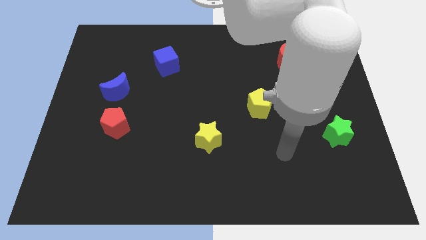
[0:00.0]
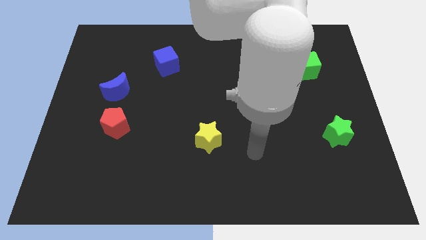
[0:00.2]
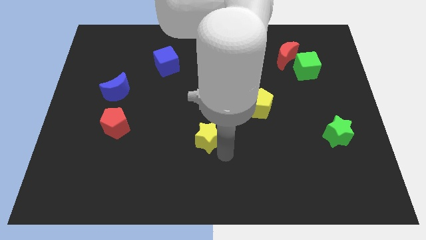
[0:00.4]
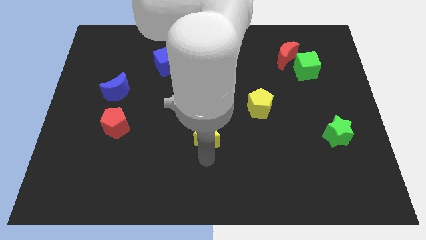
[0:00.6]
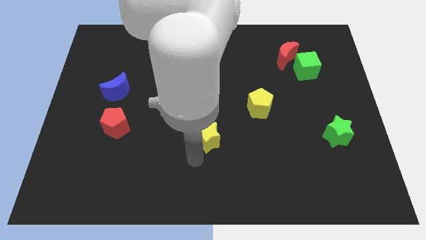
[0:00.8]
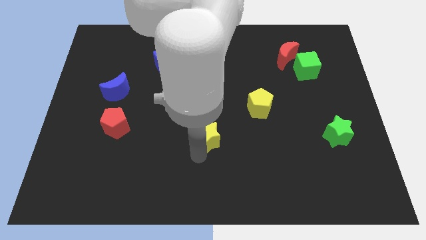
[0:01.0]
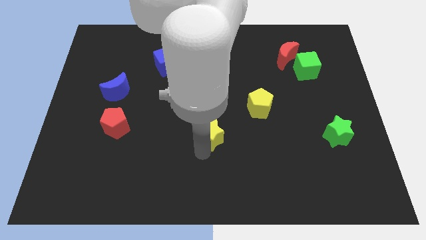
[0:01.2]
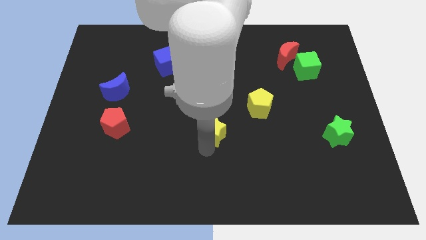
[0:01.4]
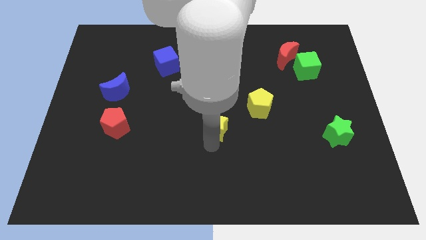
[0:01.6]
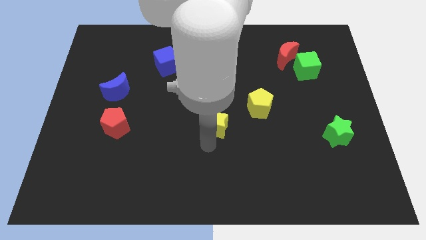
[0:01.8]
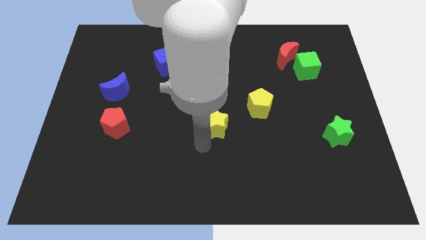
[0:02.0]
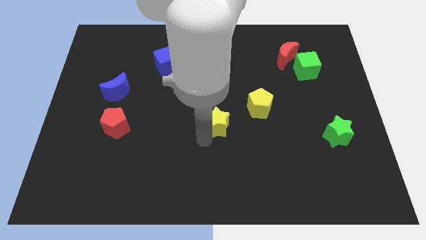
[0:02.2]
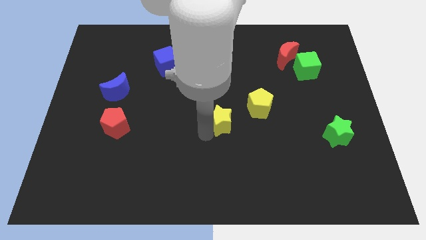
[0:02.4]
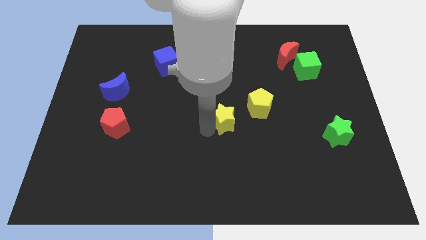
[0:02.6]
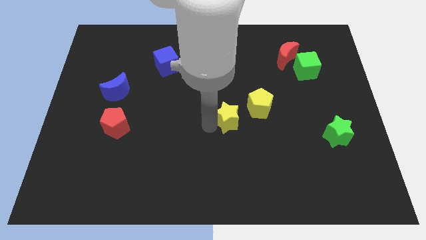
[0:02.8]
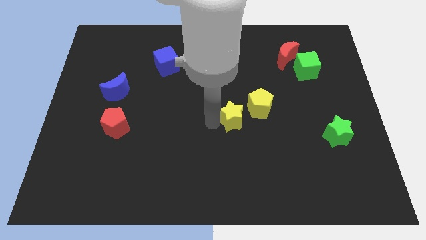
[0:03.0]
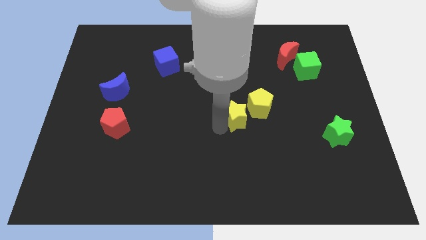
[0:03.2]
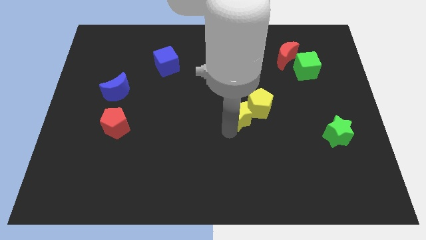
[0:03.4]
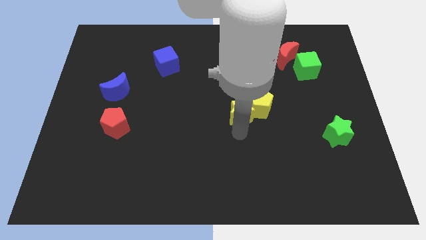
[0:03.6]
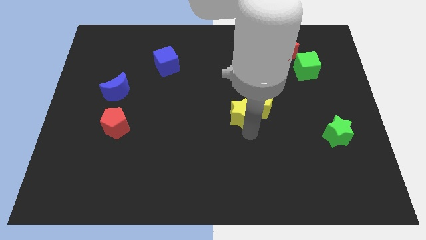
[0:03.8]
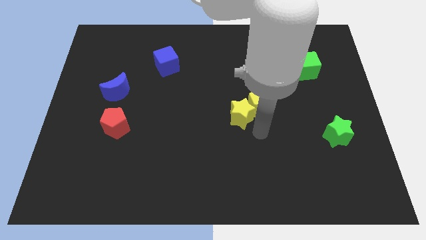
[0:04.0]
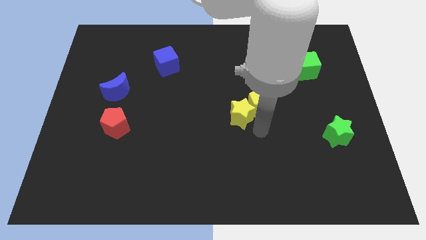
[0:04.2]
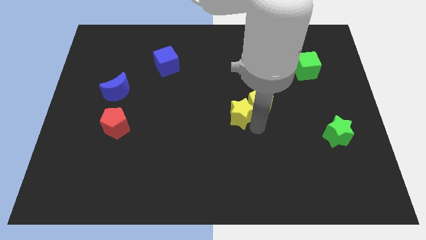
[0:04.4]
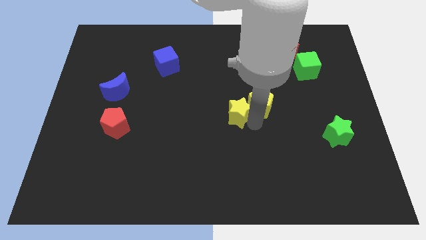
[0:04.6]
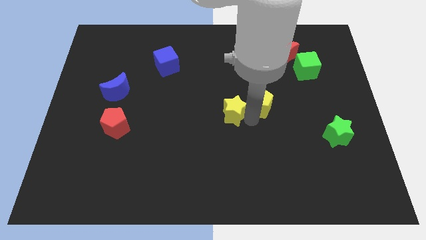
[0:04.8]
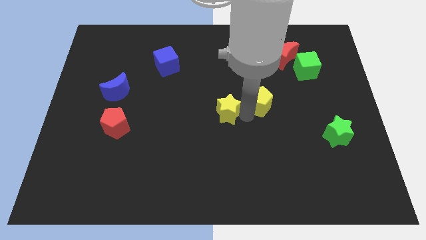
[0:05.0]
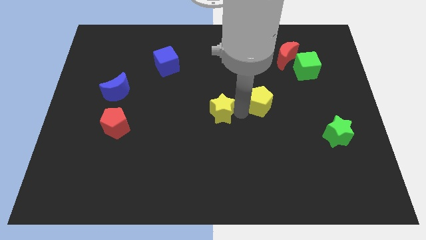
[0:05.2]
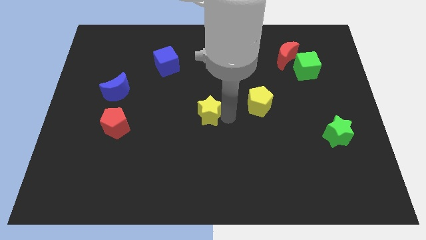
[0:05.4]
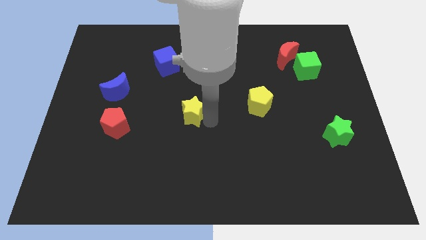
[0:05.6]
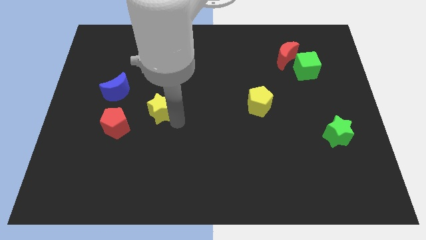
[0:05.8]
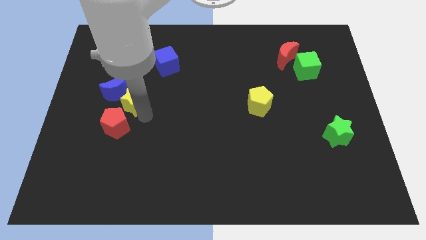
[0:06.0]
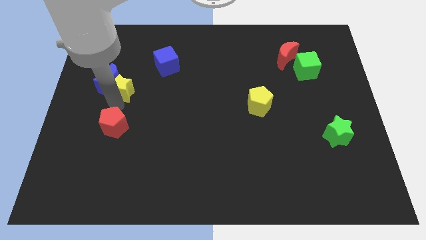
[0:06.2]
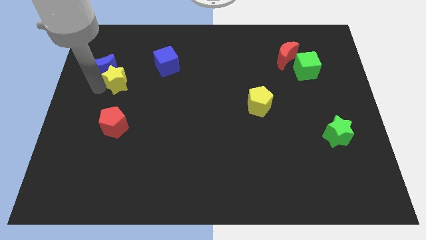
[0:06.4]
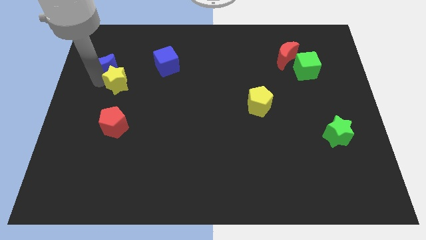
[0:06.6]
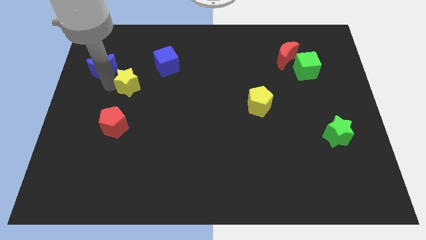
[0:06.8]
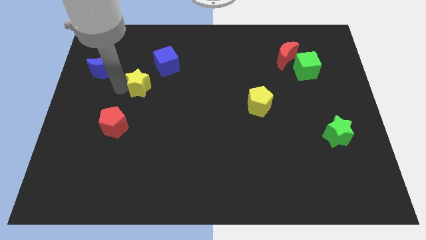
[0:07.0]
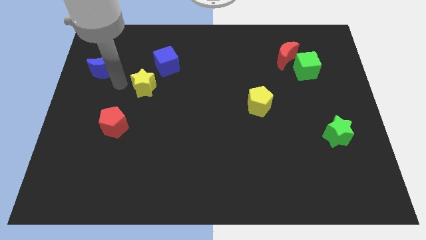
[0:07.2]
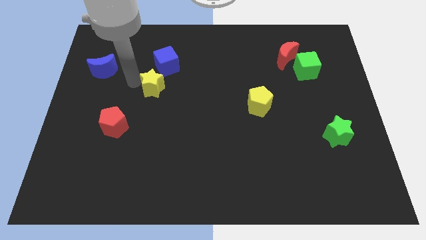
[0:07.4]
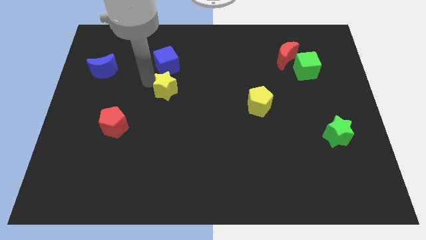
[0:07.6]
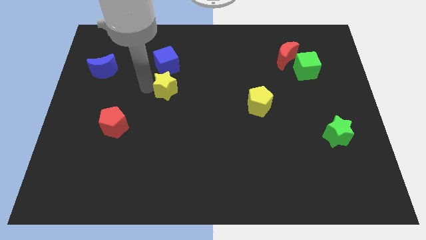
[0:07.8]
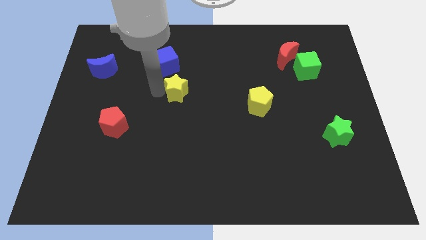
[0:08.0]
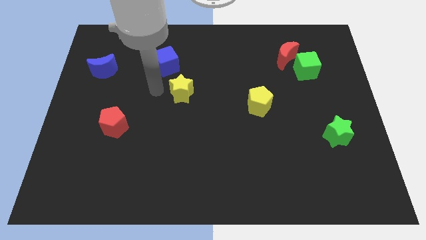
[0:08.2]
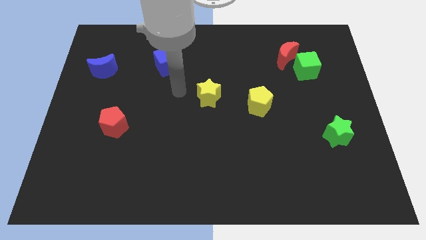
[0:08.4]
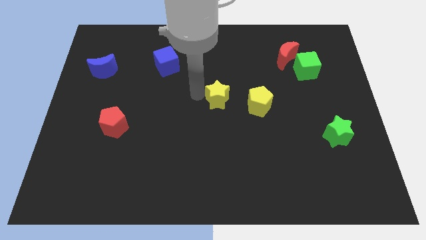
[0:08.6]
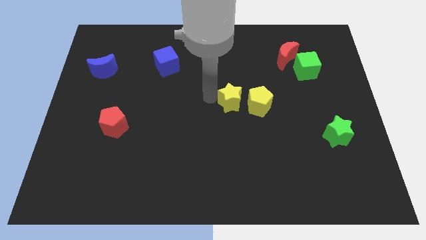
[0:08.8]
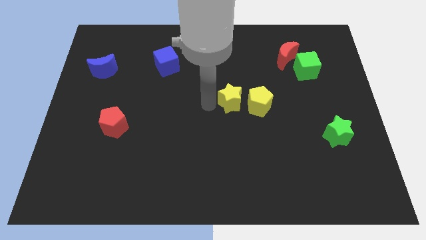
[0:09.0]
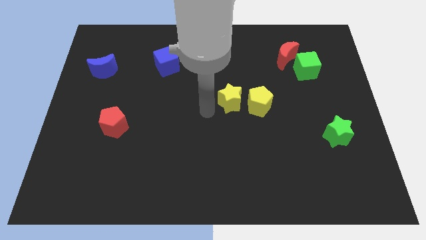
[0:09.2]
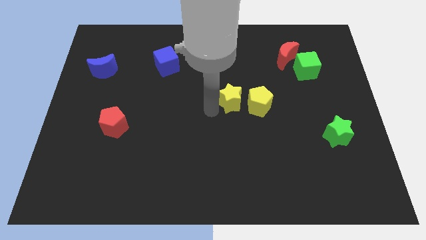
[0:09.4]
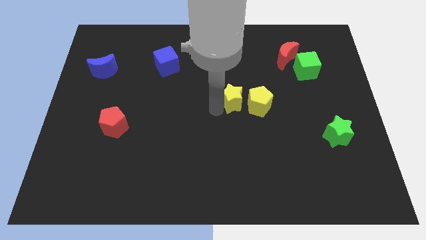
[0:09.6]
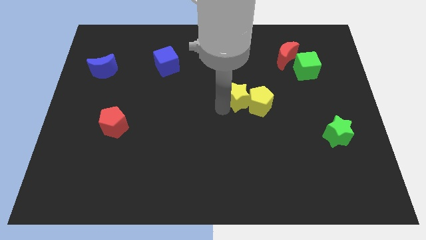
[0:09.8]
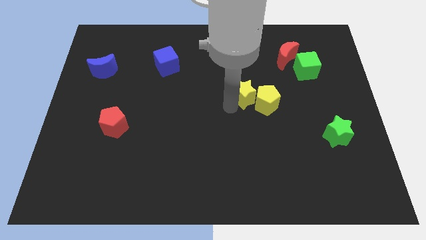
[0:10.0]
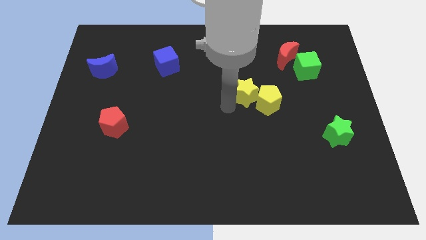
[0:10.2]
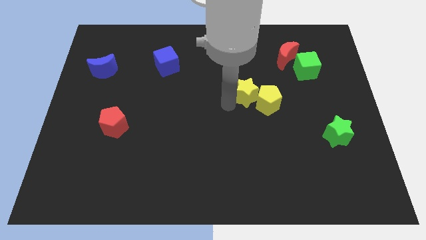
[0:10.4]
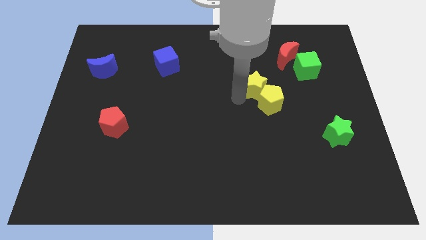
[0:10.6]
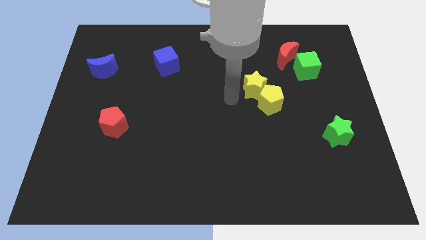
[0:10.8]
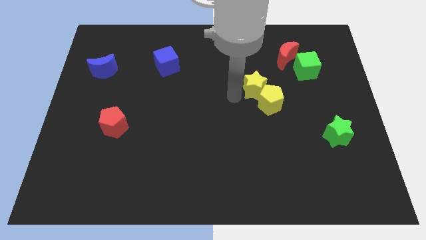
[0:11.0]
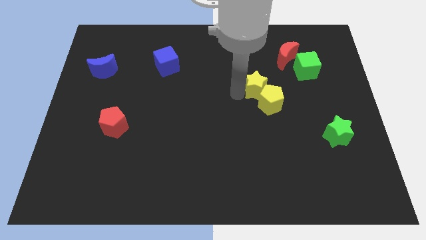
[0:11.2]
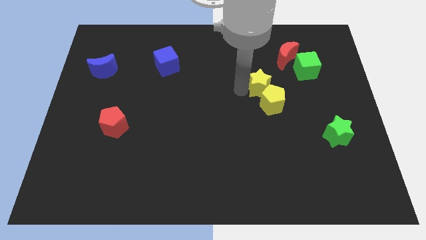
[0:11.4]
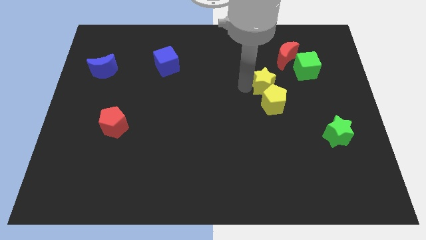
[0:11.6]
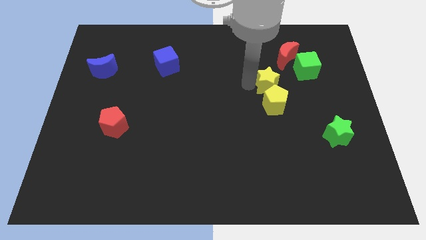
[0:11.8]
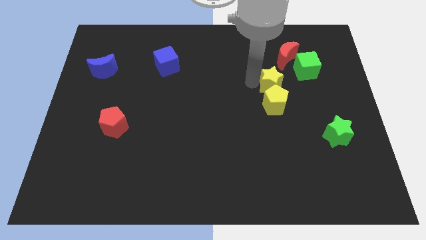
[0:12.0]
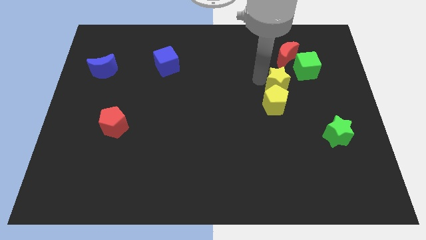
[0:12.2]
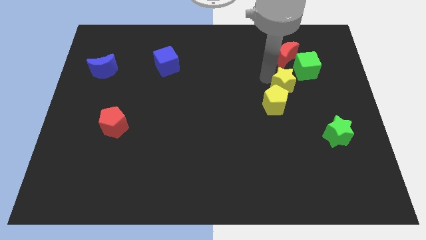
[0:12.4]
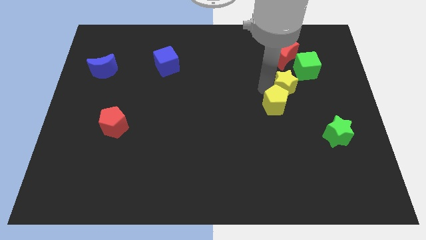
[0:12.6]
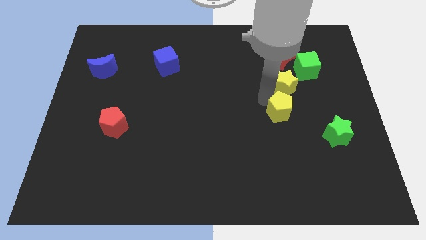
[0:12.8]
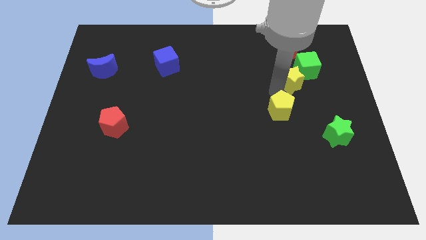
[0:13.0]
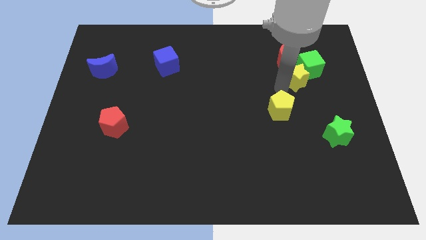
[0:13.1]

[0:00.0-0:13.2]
slide the yellow star towards the green cube
